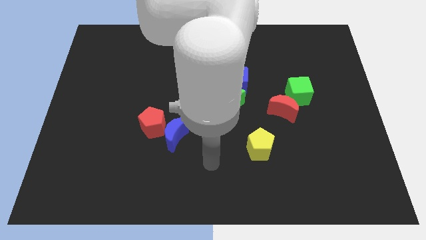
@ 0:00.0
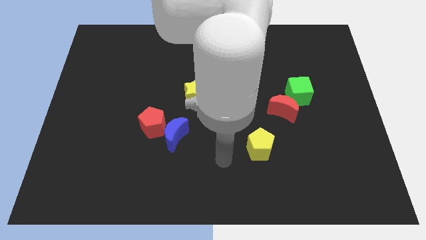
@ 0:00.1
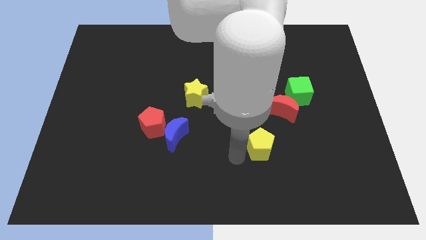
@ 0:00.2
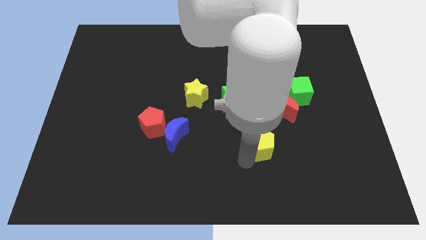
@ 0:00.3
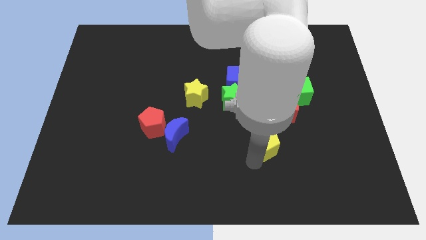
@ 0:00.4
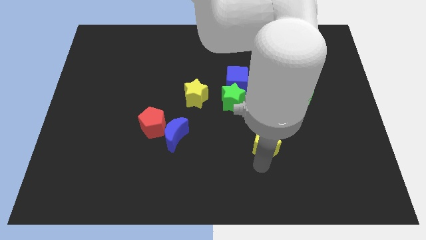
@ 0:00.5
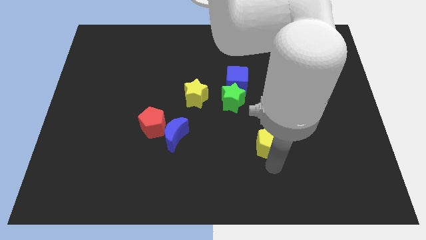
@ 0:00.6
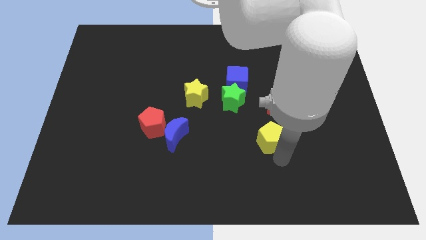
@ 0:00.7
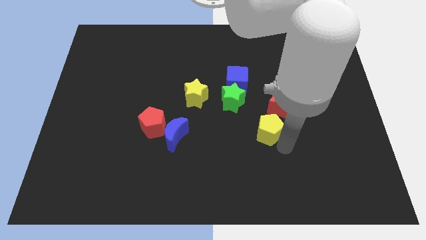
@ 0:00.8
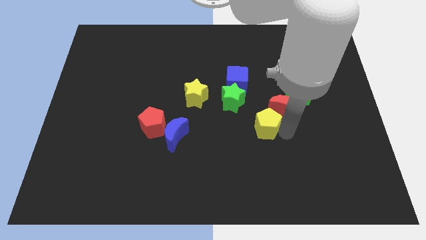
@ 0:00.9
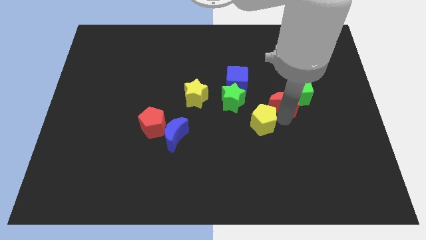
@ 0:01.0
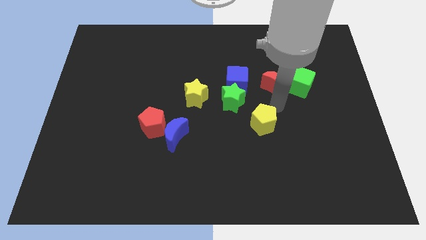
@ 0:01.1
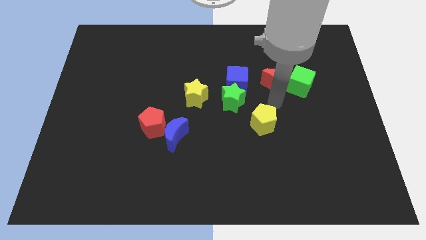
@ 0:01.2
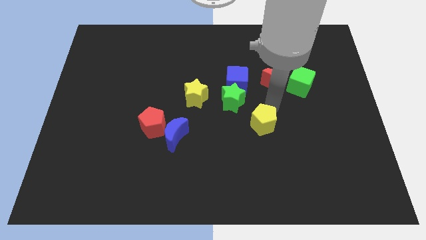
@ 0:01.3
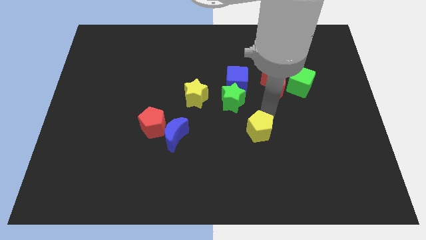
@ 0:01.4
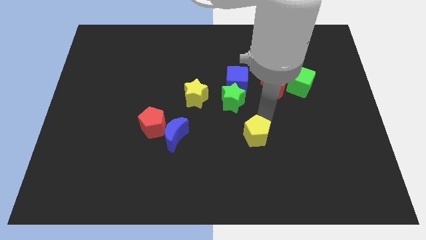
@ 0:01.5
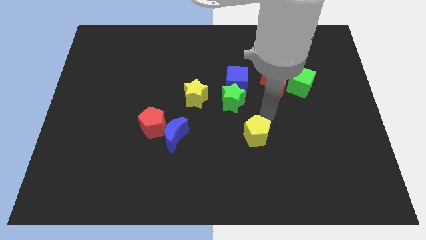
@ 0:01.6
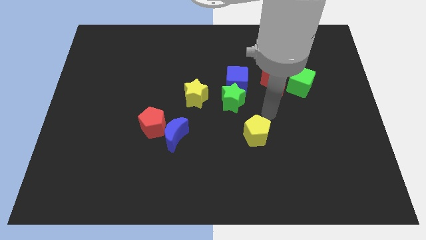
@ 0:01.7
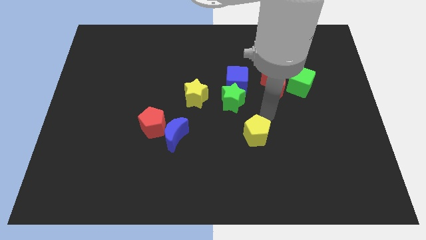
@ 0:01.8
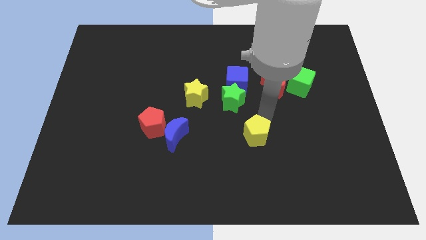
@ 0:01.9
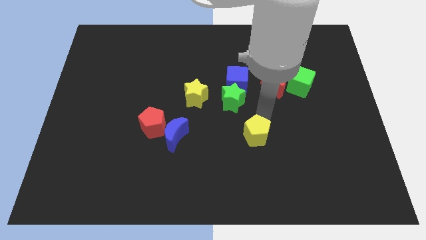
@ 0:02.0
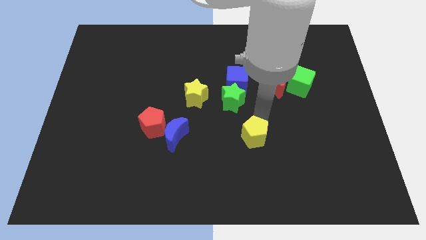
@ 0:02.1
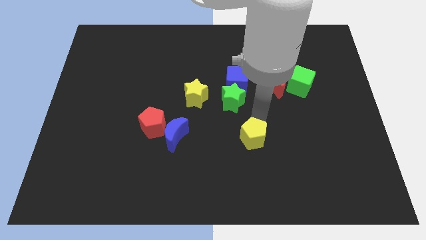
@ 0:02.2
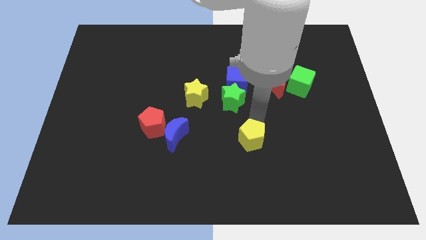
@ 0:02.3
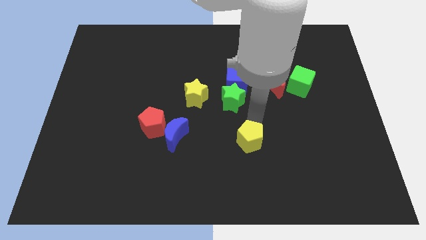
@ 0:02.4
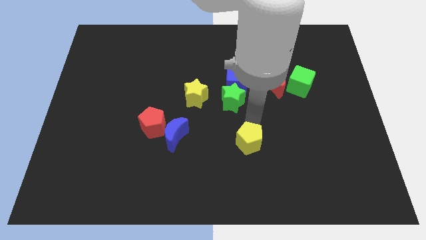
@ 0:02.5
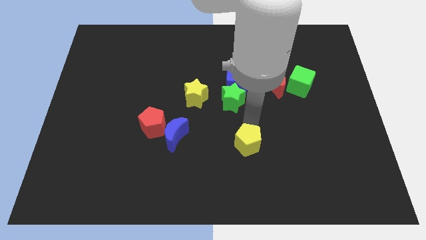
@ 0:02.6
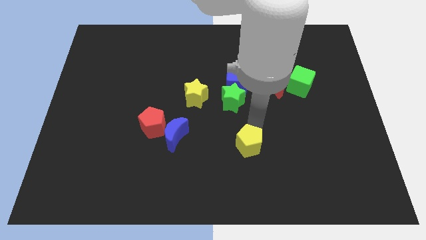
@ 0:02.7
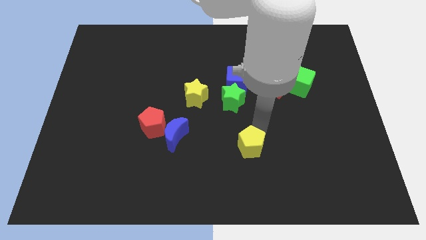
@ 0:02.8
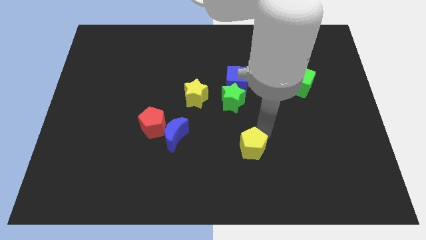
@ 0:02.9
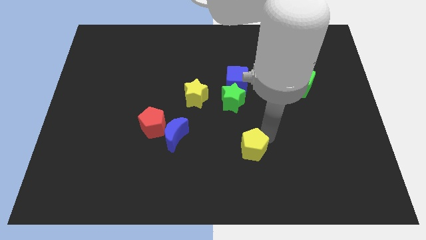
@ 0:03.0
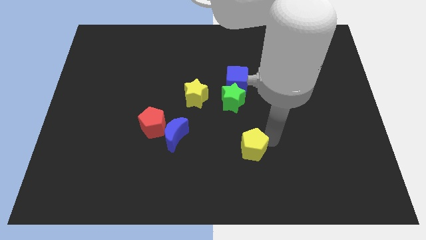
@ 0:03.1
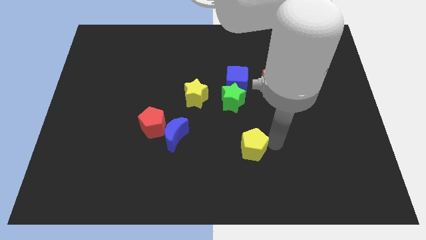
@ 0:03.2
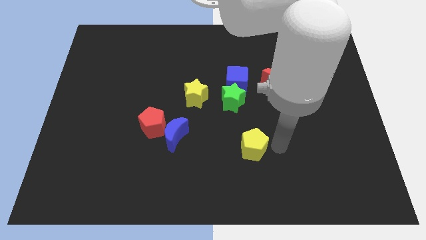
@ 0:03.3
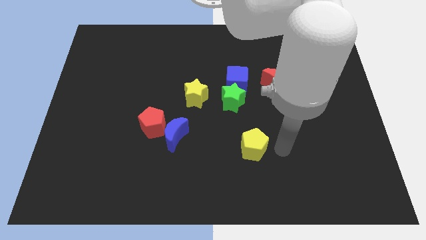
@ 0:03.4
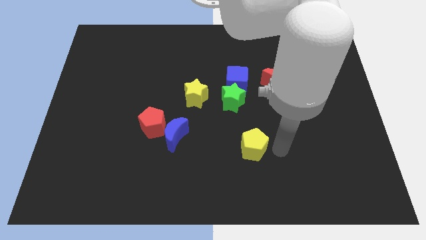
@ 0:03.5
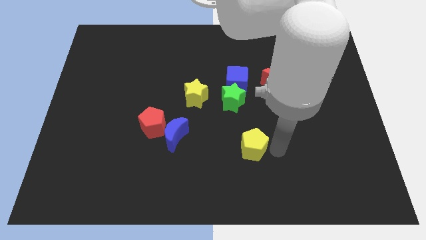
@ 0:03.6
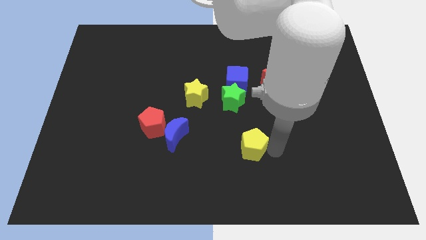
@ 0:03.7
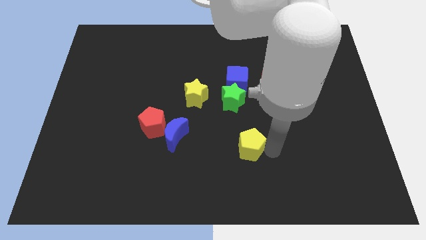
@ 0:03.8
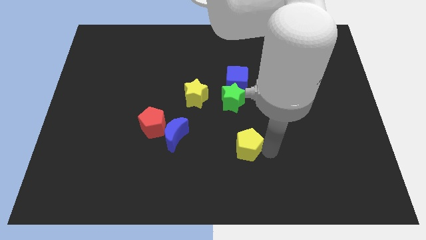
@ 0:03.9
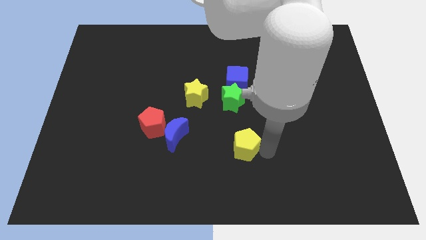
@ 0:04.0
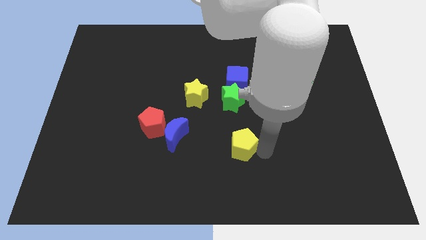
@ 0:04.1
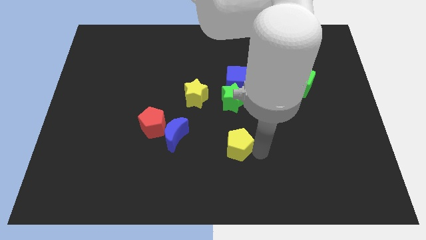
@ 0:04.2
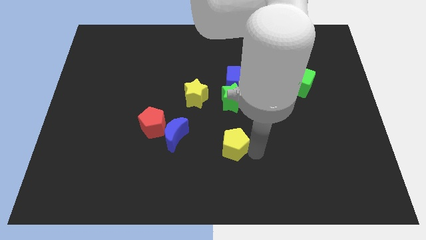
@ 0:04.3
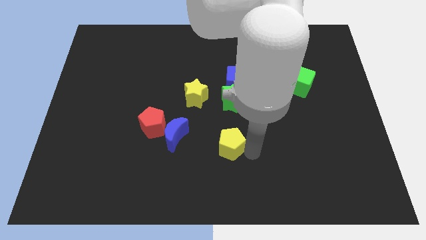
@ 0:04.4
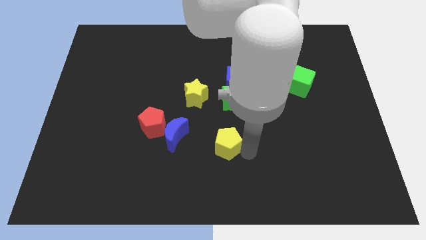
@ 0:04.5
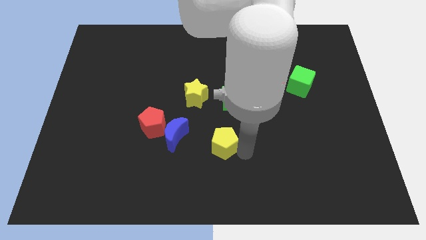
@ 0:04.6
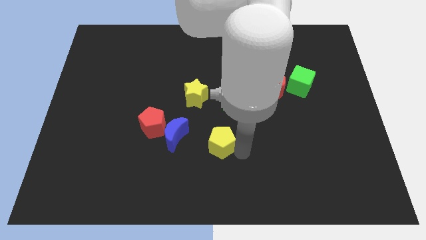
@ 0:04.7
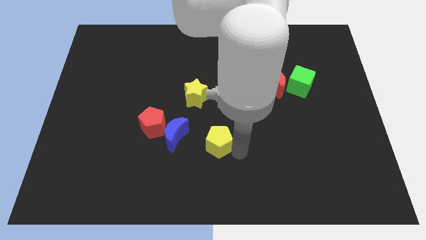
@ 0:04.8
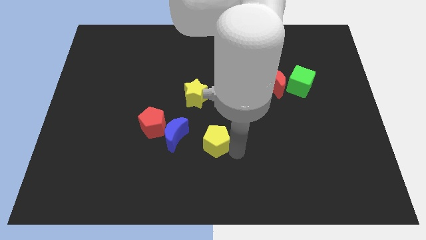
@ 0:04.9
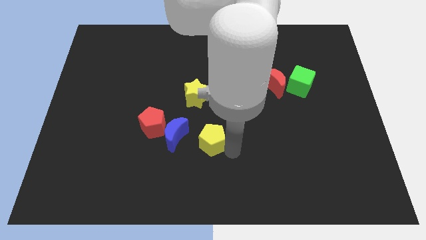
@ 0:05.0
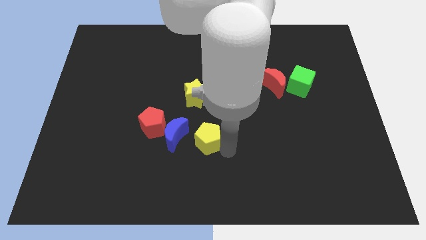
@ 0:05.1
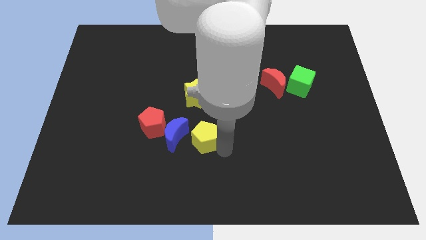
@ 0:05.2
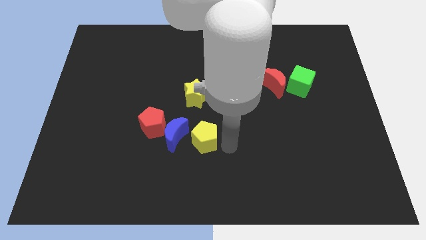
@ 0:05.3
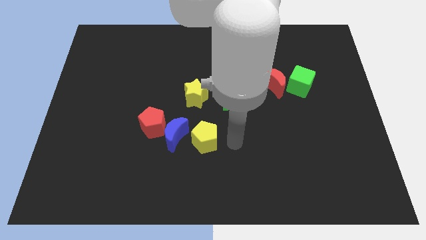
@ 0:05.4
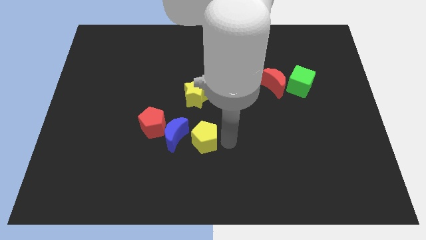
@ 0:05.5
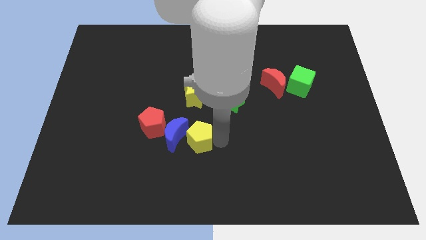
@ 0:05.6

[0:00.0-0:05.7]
move the yellow pentagon to the blue moon

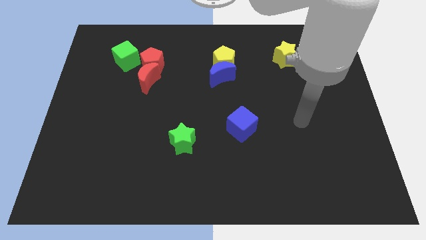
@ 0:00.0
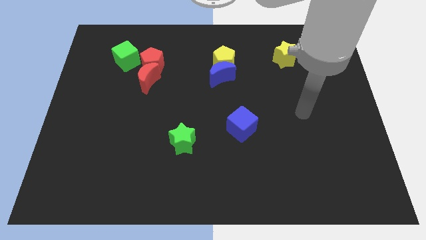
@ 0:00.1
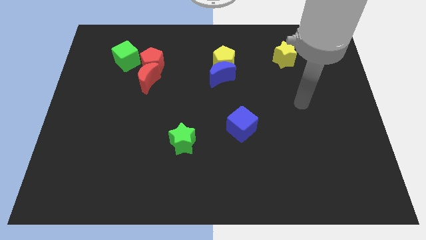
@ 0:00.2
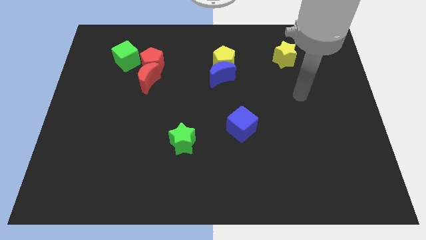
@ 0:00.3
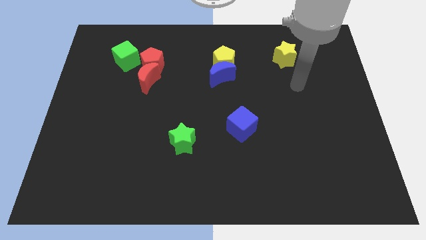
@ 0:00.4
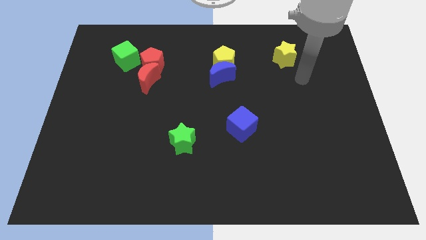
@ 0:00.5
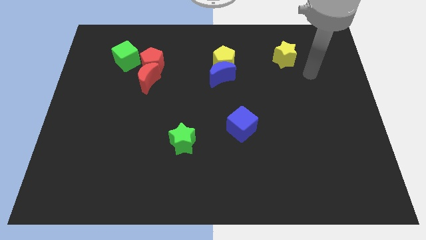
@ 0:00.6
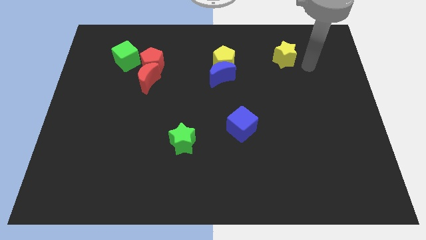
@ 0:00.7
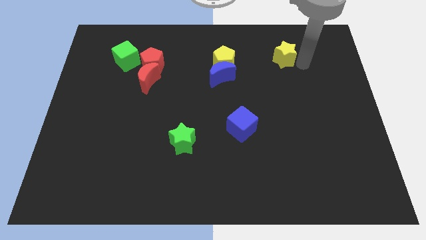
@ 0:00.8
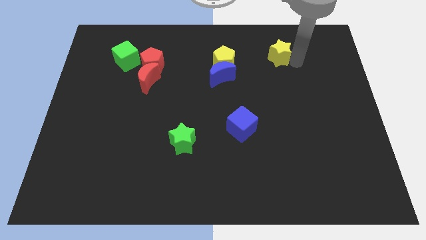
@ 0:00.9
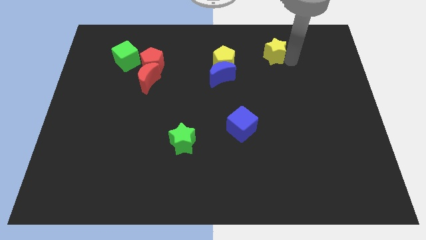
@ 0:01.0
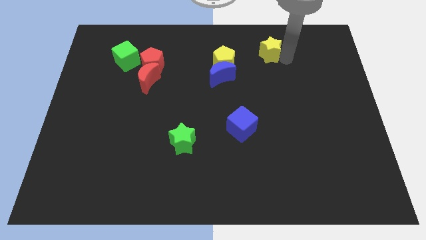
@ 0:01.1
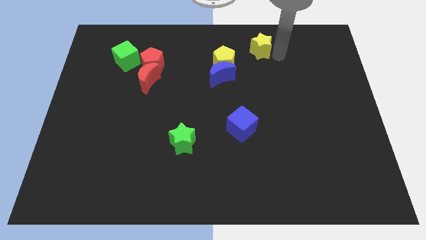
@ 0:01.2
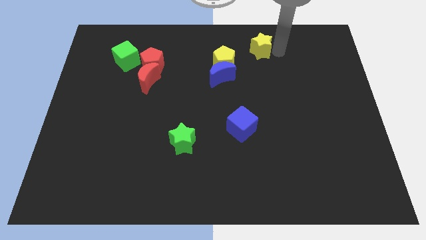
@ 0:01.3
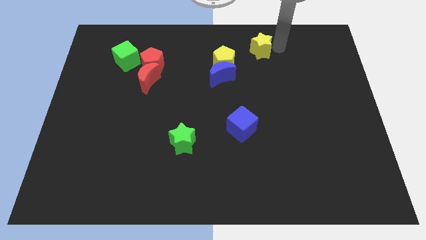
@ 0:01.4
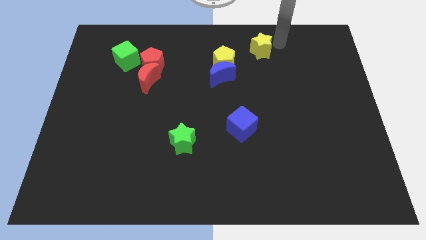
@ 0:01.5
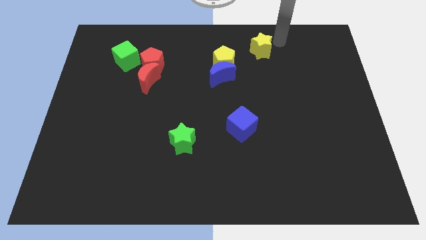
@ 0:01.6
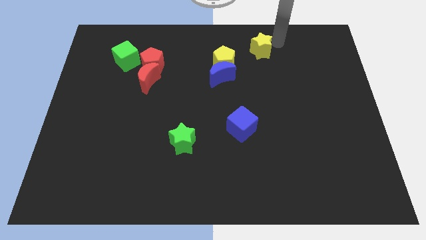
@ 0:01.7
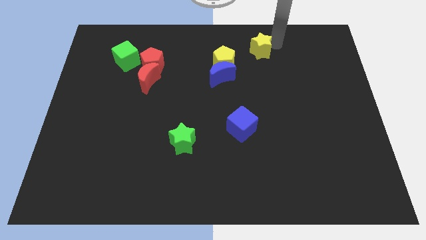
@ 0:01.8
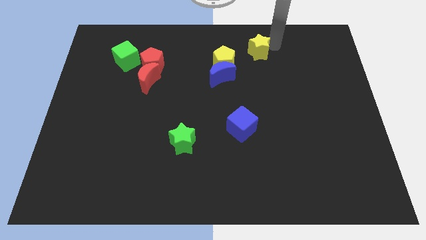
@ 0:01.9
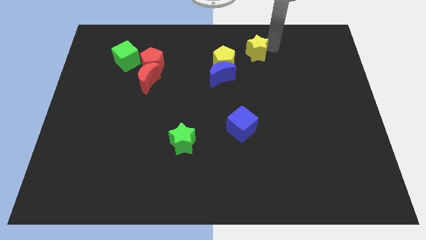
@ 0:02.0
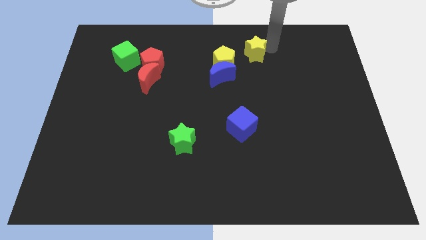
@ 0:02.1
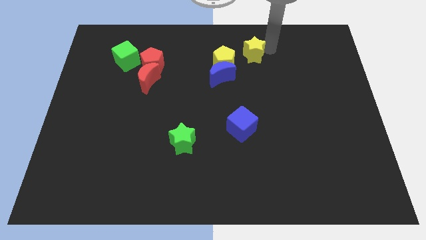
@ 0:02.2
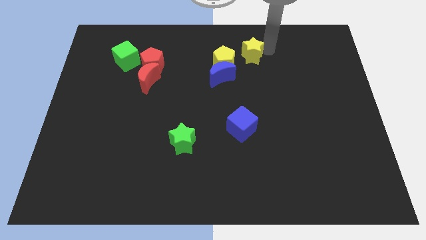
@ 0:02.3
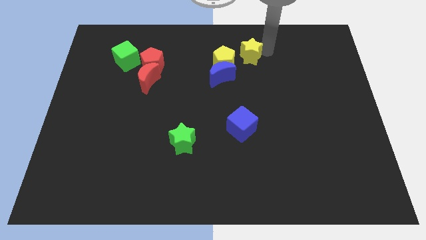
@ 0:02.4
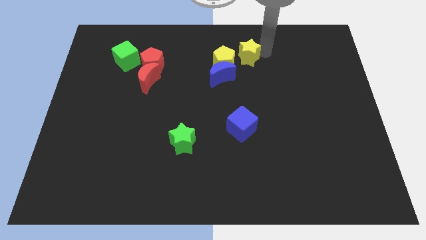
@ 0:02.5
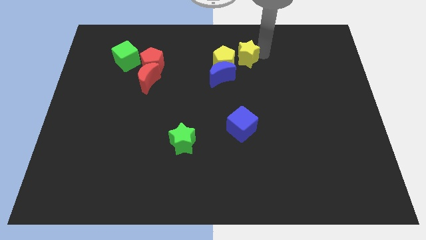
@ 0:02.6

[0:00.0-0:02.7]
put the yellow star next to the yellow pentagon
